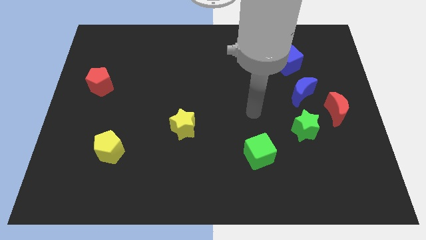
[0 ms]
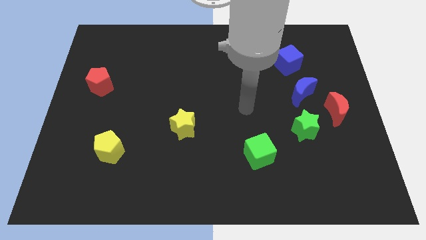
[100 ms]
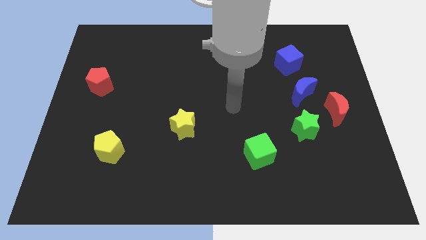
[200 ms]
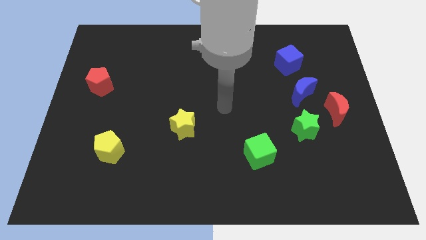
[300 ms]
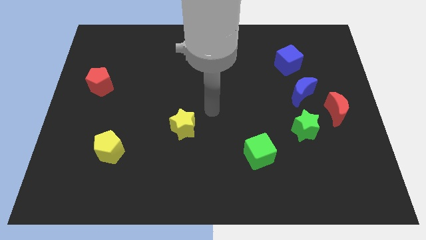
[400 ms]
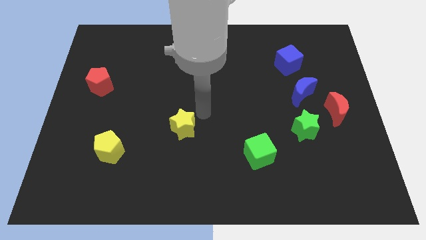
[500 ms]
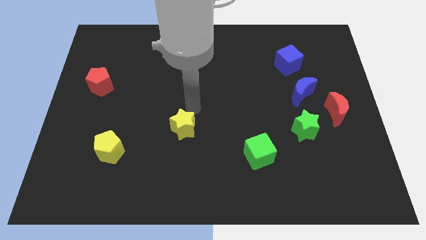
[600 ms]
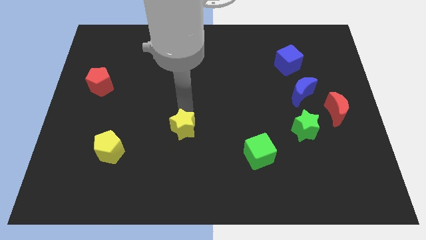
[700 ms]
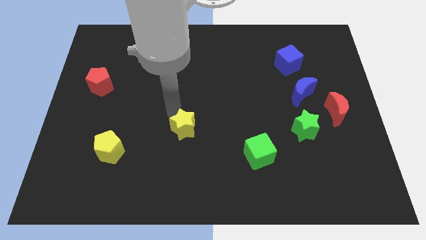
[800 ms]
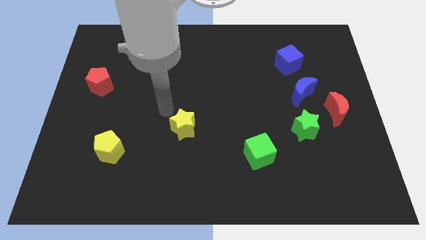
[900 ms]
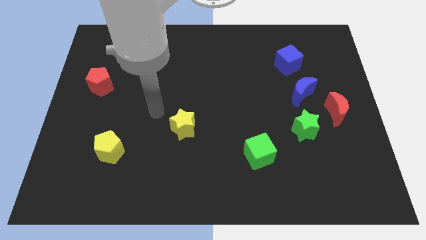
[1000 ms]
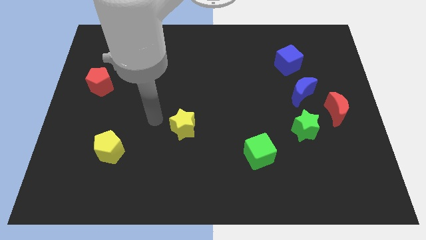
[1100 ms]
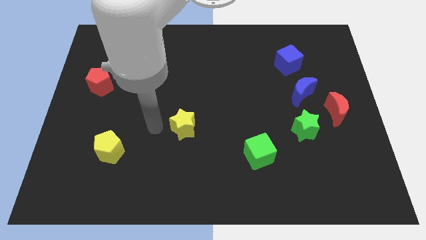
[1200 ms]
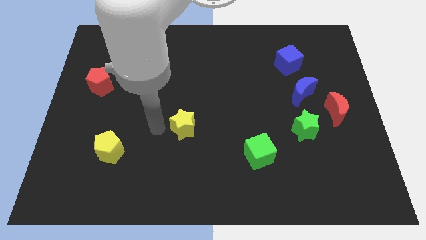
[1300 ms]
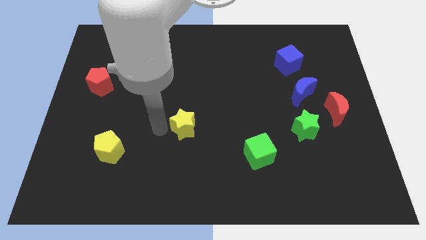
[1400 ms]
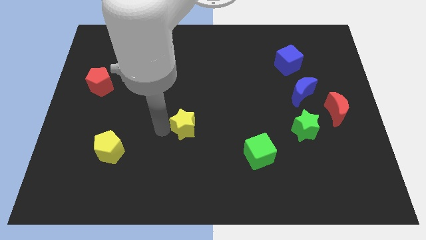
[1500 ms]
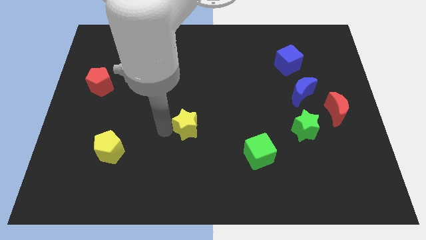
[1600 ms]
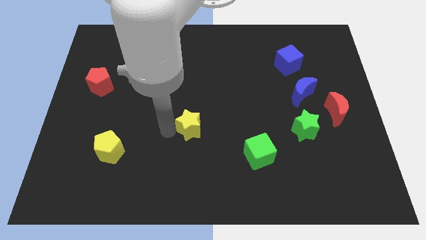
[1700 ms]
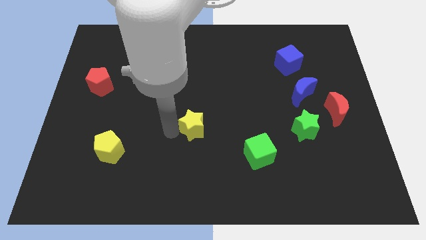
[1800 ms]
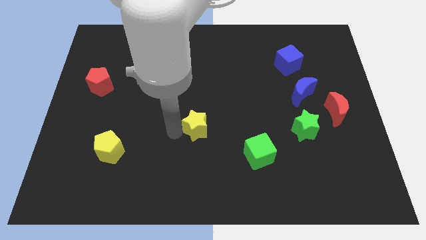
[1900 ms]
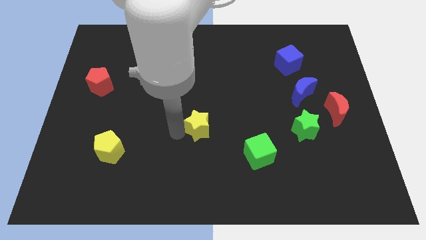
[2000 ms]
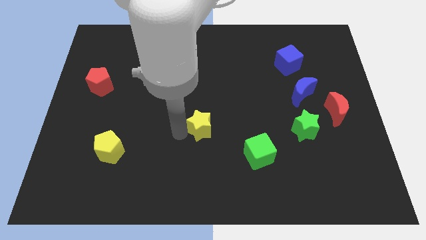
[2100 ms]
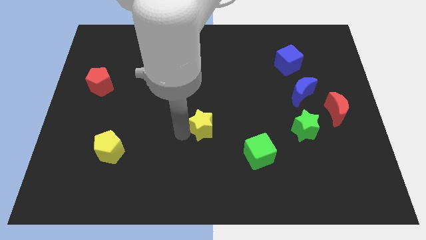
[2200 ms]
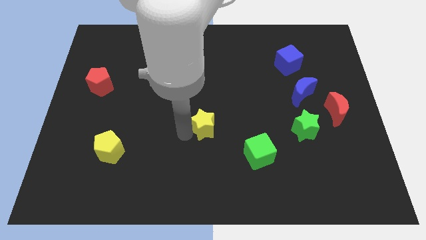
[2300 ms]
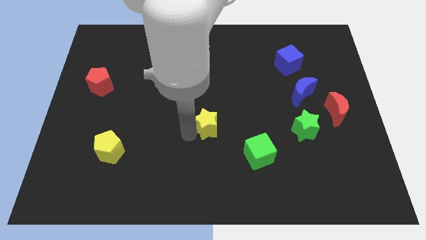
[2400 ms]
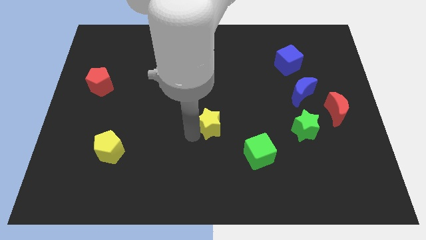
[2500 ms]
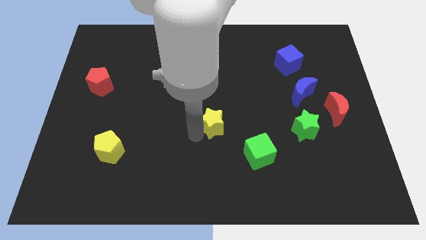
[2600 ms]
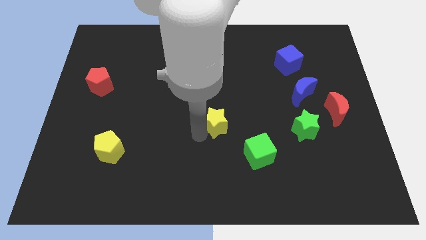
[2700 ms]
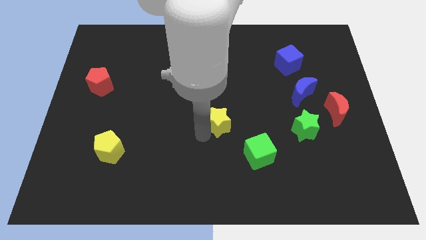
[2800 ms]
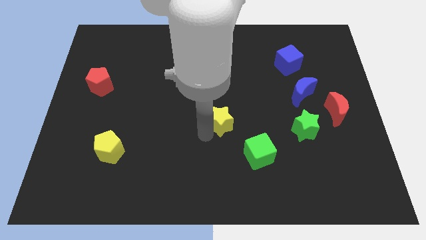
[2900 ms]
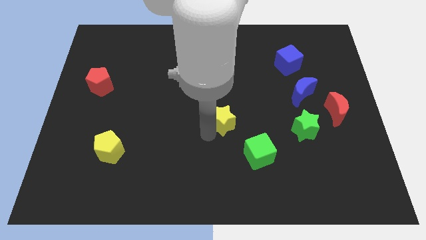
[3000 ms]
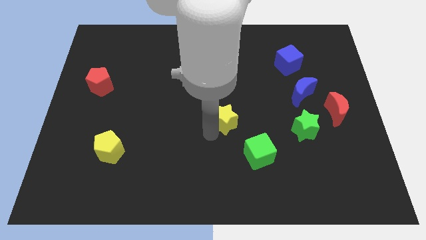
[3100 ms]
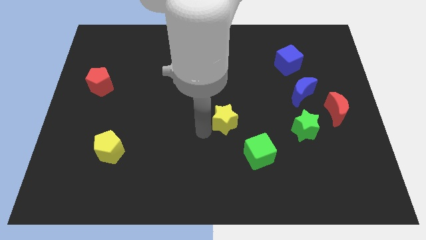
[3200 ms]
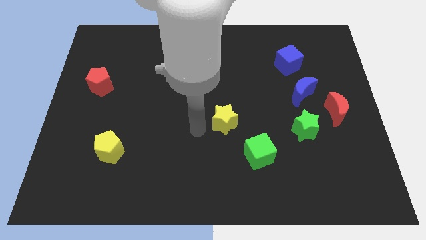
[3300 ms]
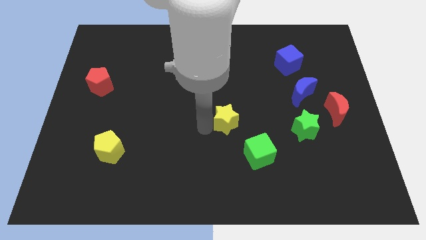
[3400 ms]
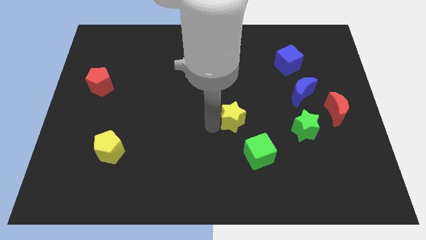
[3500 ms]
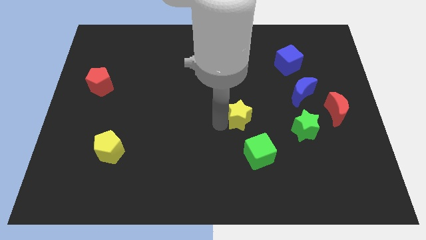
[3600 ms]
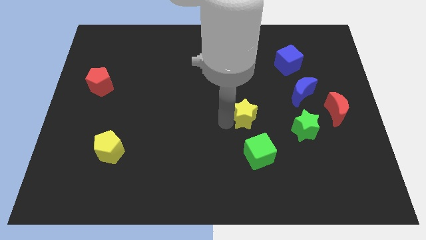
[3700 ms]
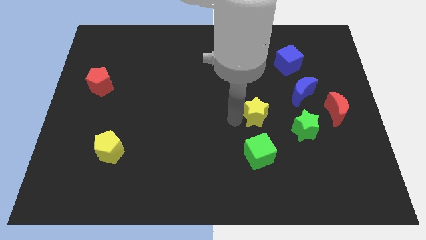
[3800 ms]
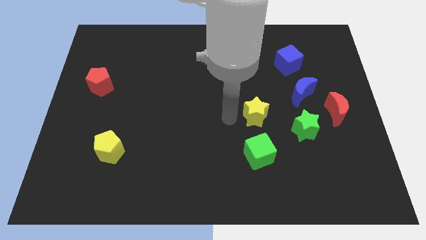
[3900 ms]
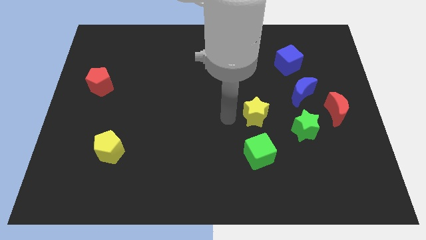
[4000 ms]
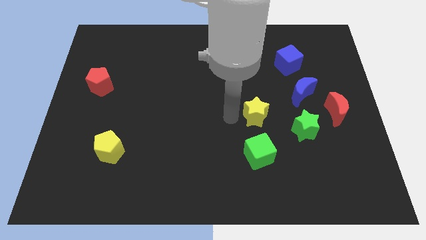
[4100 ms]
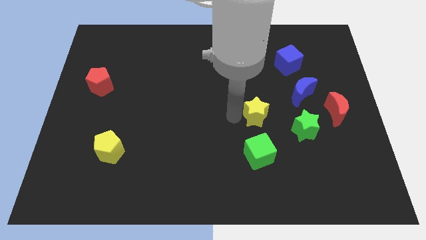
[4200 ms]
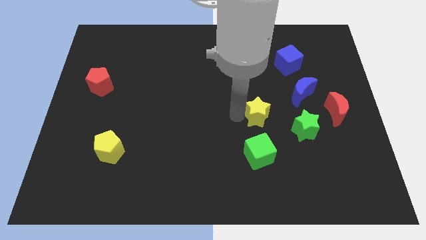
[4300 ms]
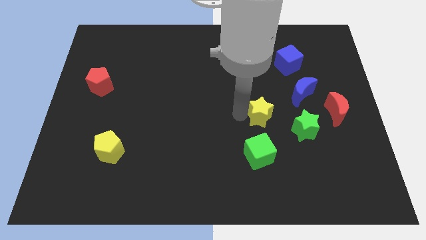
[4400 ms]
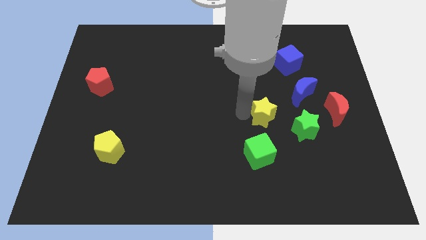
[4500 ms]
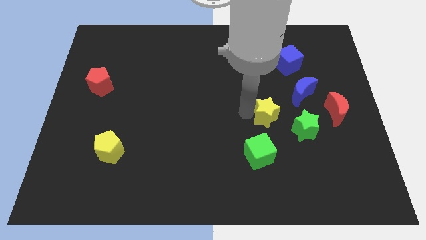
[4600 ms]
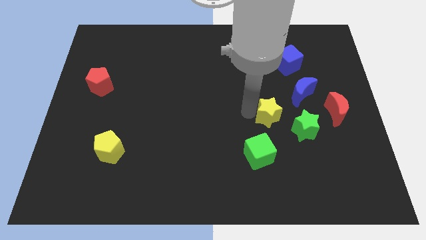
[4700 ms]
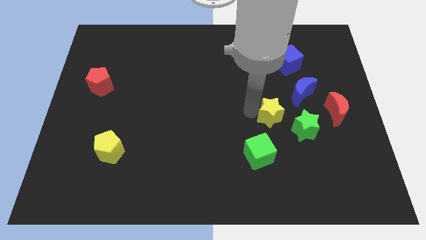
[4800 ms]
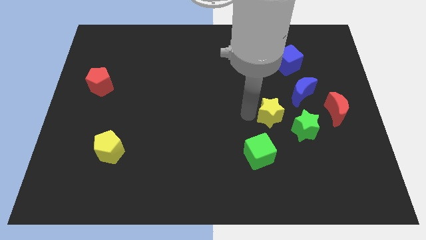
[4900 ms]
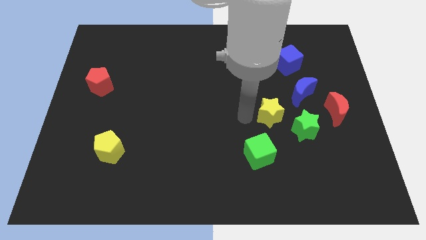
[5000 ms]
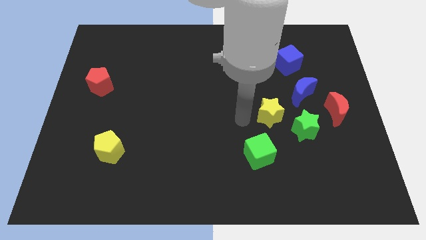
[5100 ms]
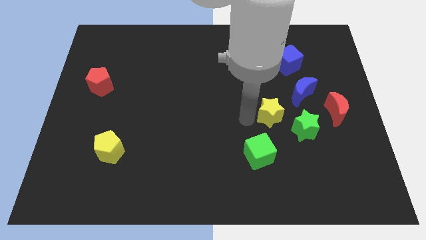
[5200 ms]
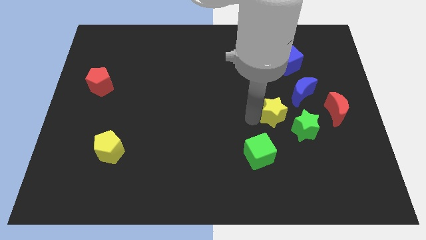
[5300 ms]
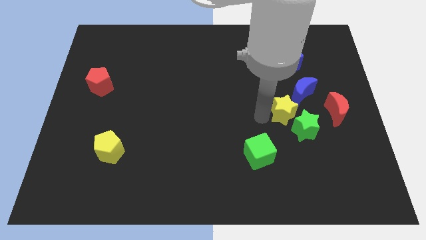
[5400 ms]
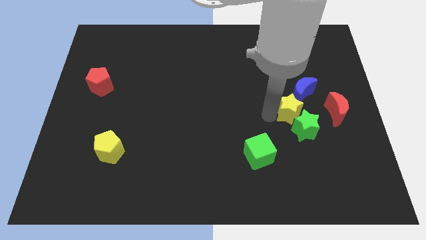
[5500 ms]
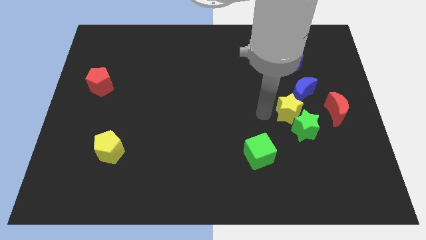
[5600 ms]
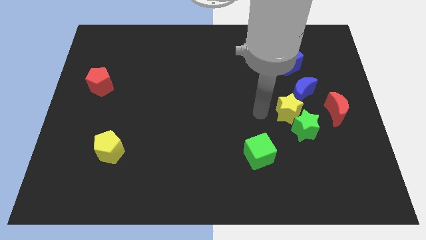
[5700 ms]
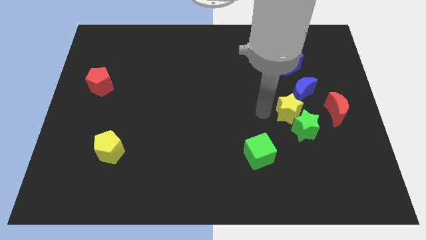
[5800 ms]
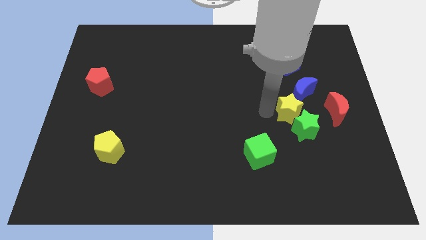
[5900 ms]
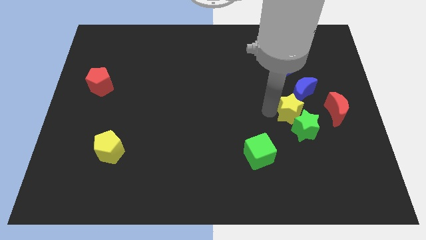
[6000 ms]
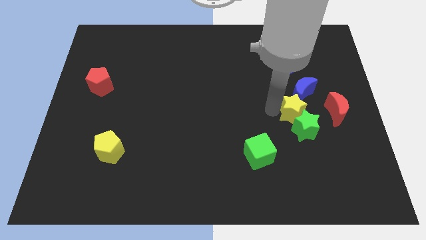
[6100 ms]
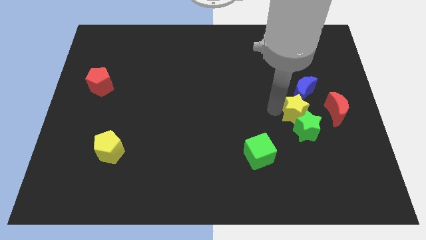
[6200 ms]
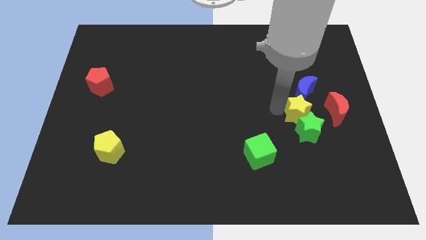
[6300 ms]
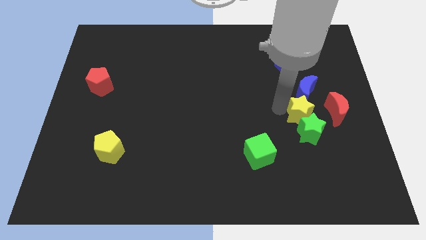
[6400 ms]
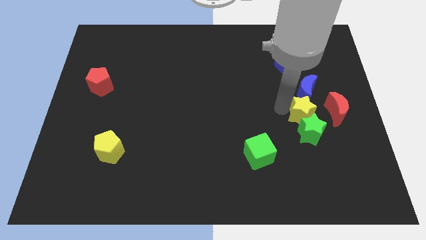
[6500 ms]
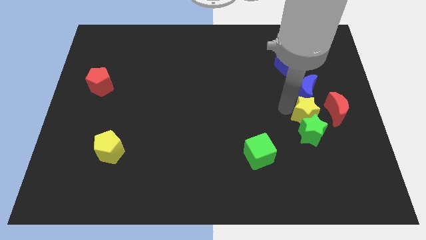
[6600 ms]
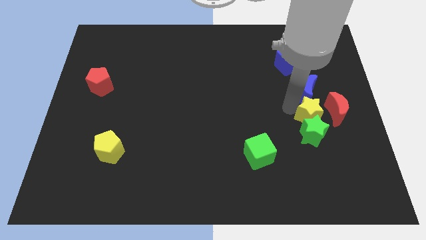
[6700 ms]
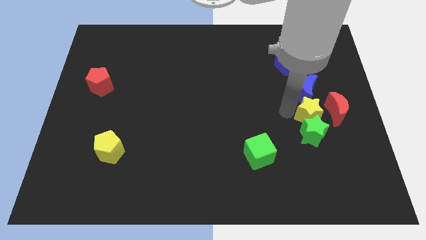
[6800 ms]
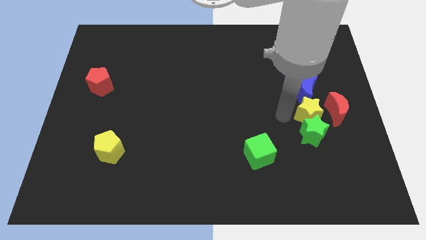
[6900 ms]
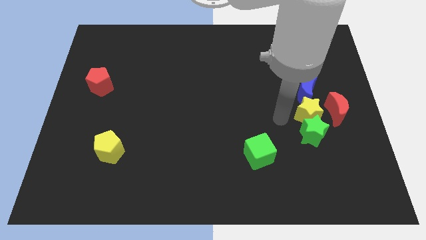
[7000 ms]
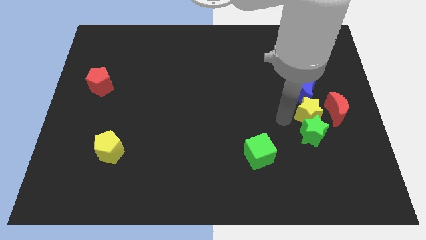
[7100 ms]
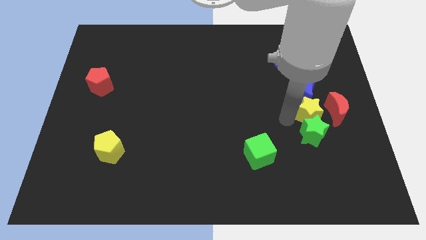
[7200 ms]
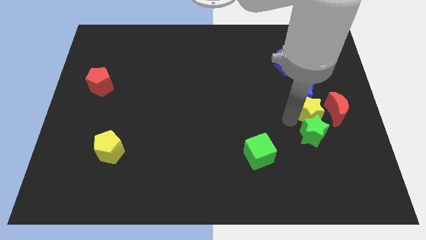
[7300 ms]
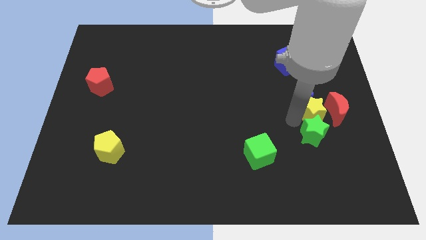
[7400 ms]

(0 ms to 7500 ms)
move the yellow star towards the red moon

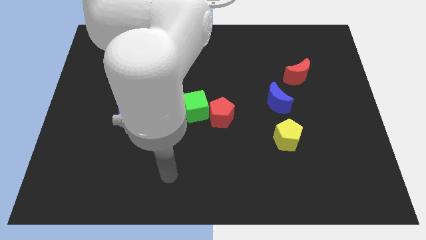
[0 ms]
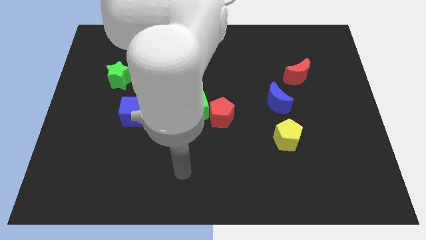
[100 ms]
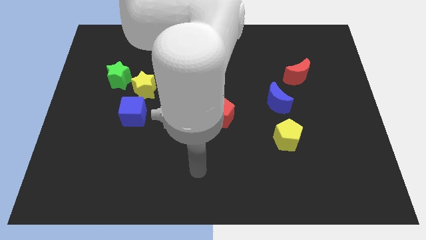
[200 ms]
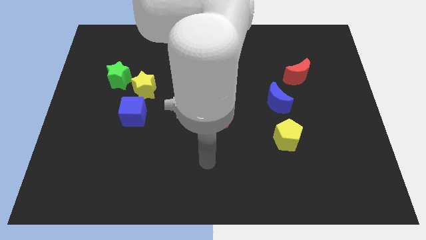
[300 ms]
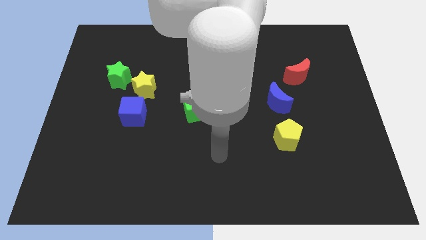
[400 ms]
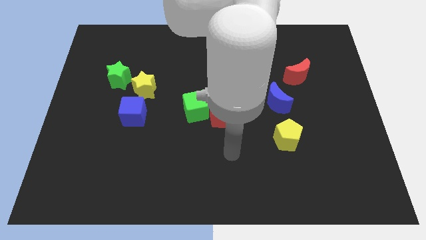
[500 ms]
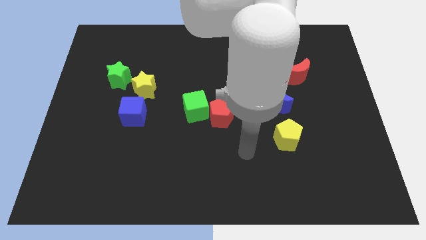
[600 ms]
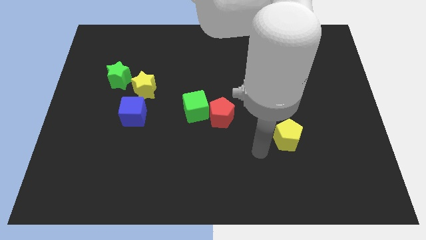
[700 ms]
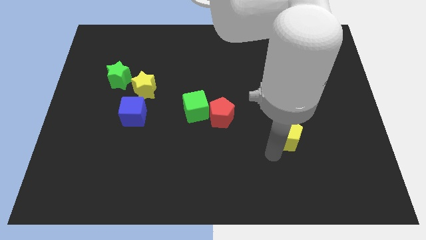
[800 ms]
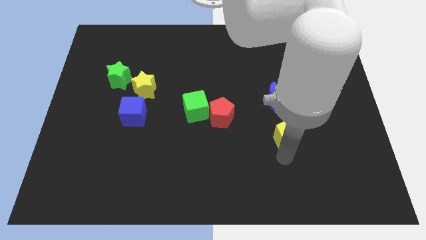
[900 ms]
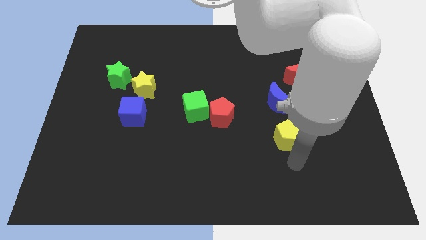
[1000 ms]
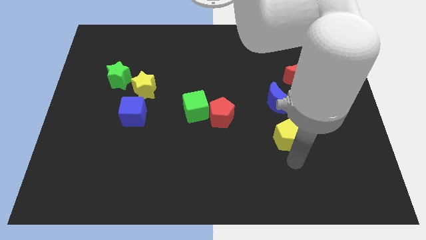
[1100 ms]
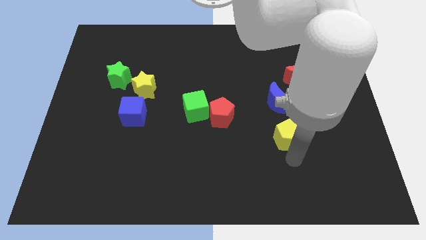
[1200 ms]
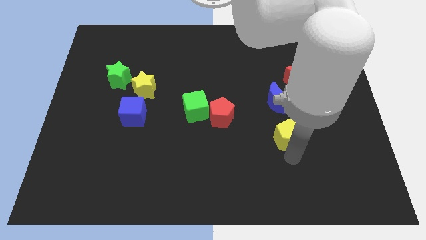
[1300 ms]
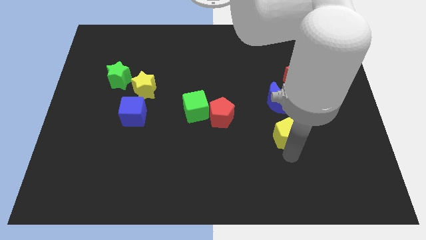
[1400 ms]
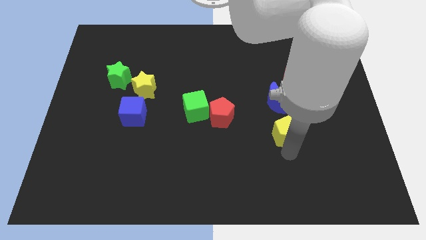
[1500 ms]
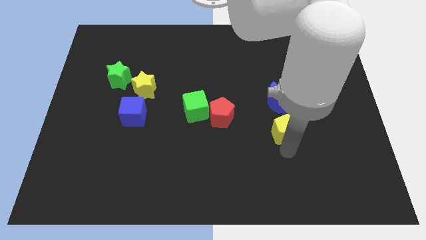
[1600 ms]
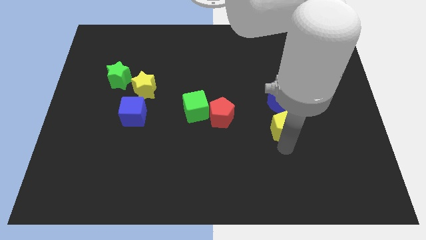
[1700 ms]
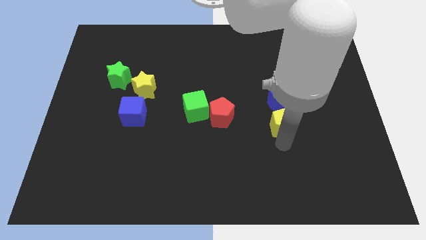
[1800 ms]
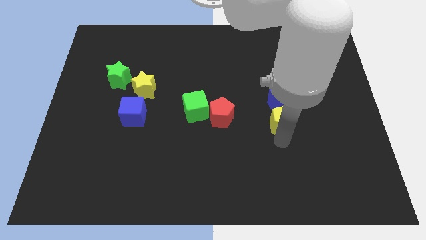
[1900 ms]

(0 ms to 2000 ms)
slide the yellow pentagon close to the blue moon
